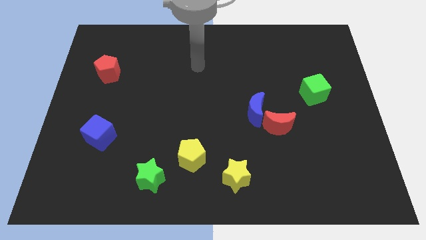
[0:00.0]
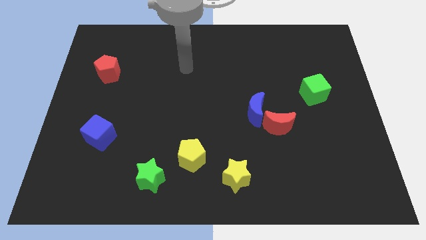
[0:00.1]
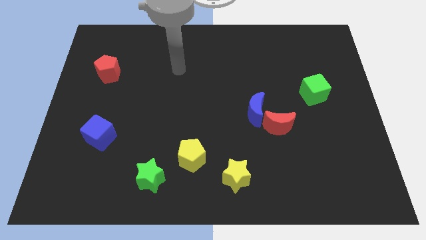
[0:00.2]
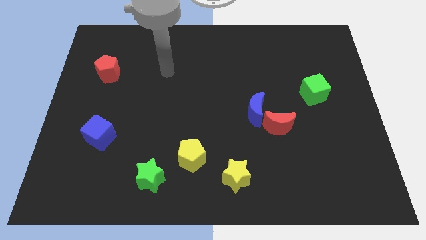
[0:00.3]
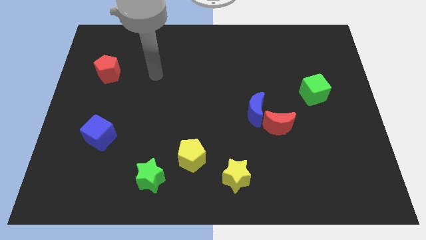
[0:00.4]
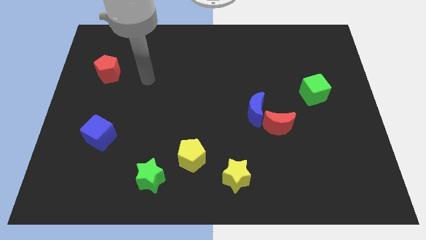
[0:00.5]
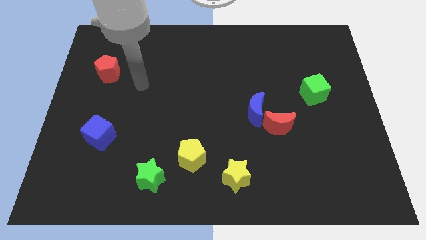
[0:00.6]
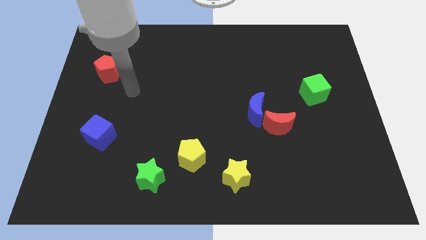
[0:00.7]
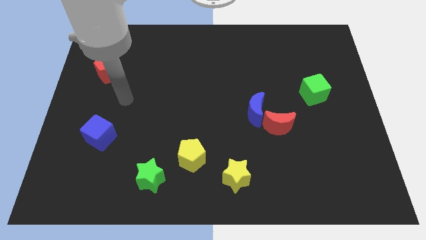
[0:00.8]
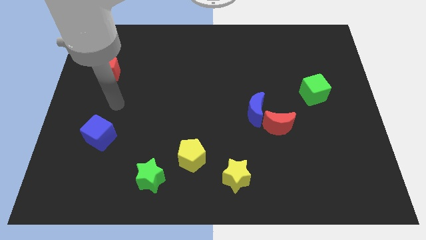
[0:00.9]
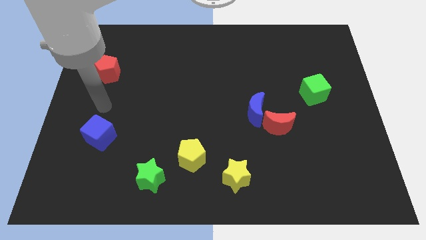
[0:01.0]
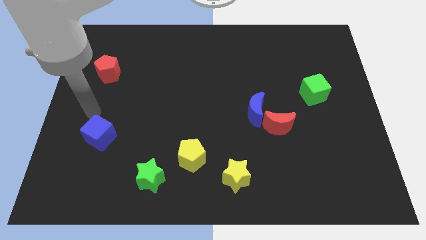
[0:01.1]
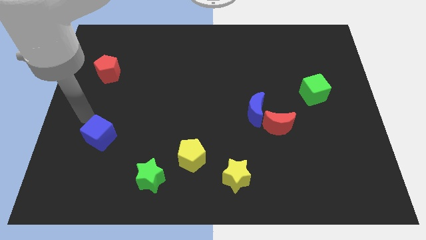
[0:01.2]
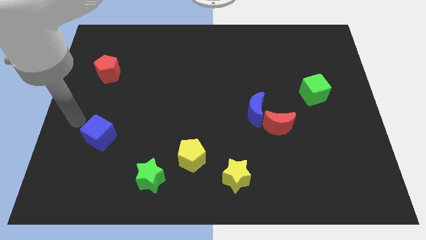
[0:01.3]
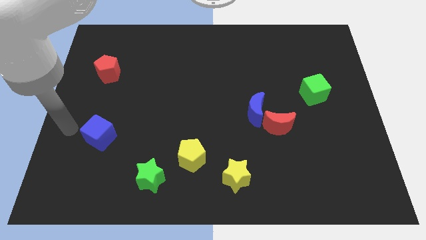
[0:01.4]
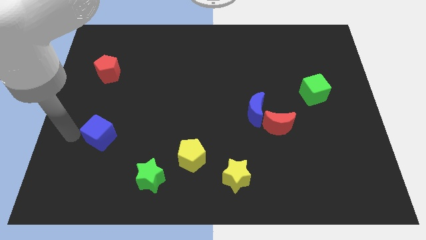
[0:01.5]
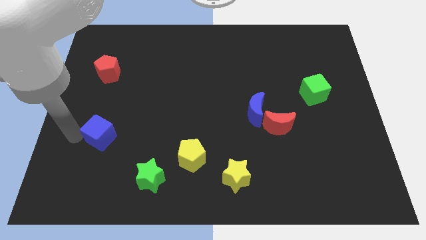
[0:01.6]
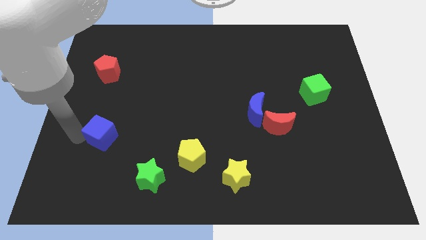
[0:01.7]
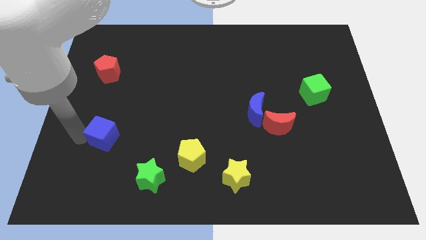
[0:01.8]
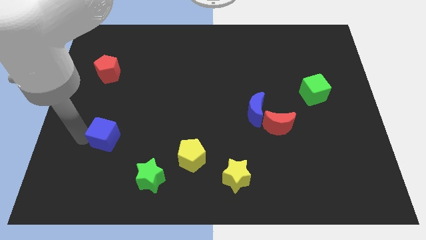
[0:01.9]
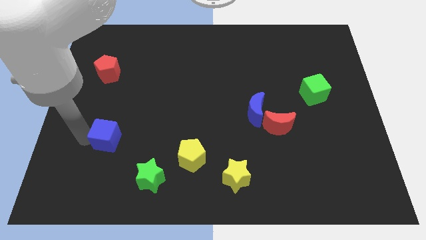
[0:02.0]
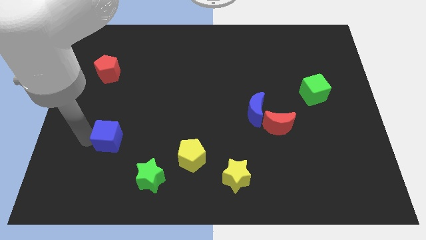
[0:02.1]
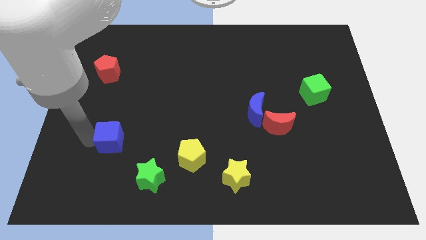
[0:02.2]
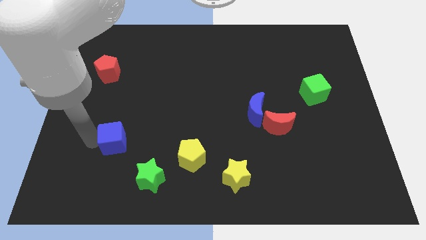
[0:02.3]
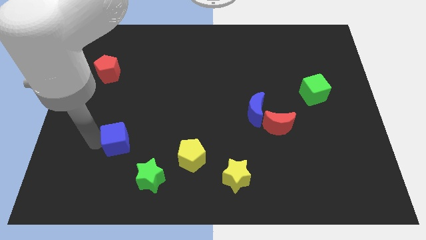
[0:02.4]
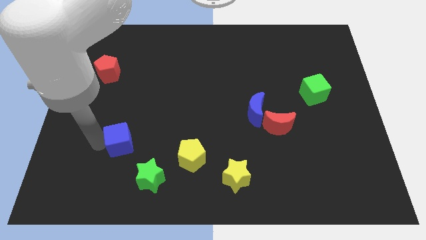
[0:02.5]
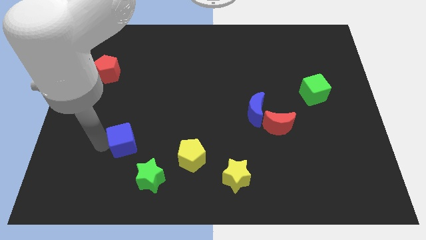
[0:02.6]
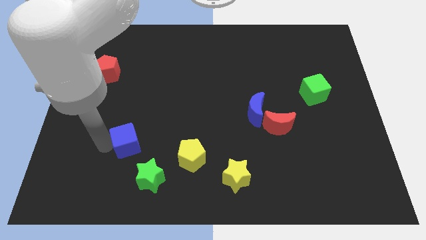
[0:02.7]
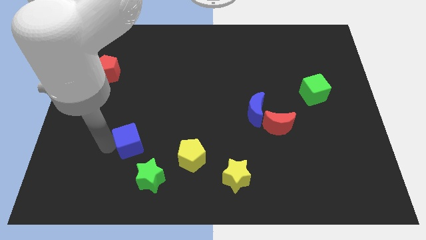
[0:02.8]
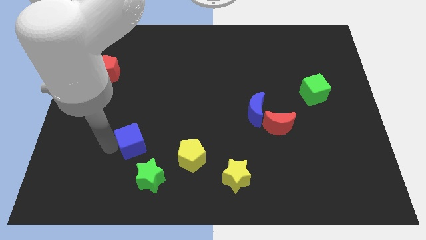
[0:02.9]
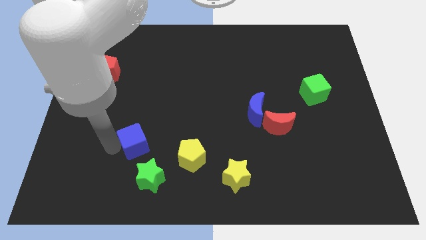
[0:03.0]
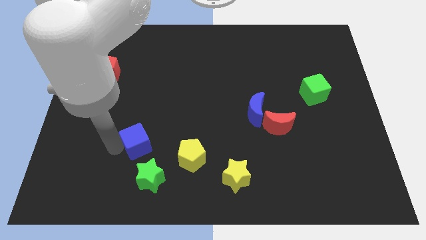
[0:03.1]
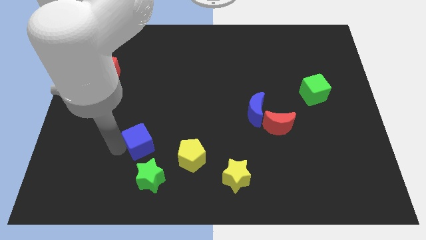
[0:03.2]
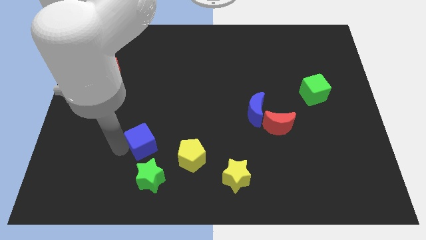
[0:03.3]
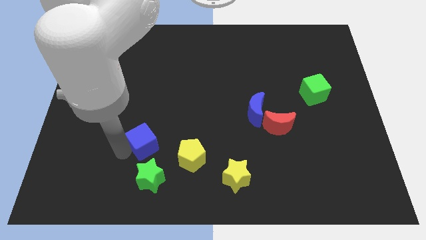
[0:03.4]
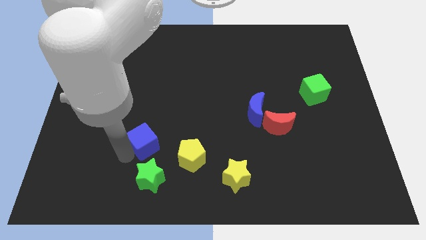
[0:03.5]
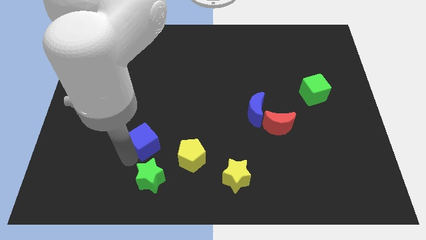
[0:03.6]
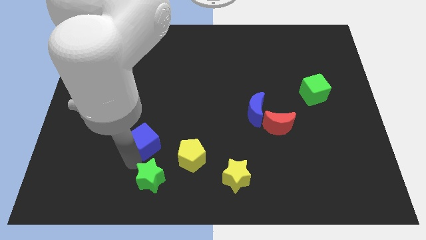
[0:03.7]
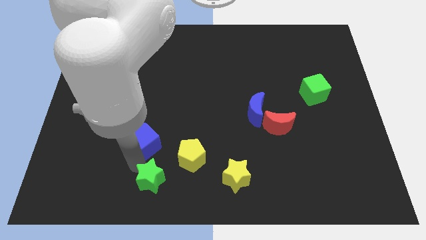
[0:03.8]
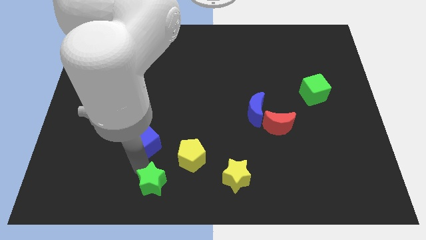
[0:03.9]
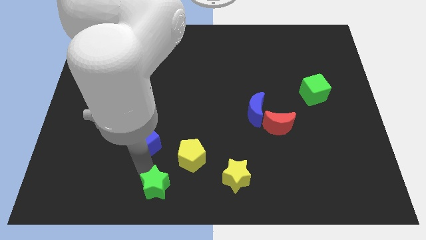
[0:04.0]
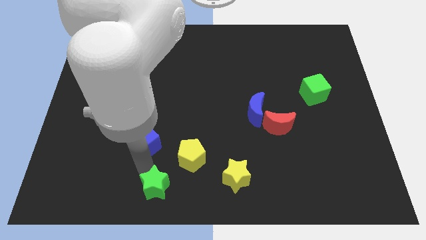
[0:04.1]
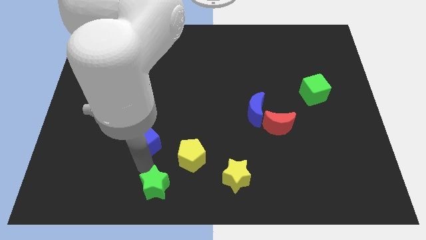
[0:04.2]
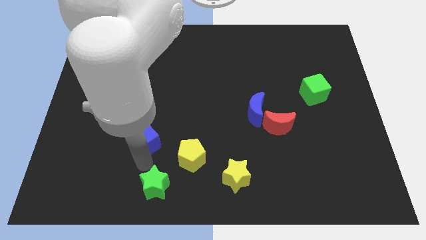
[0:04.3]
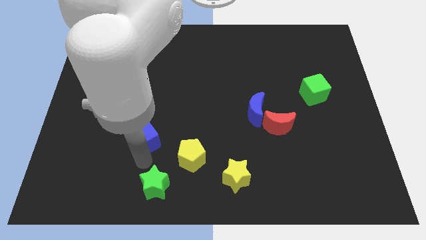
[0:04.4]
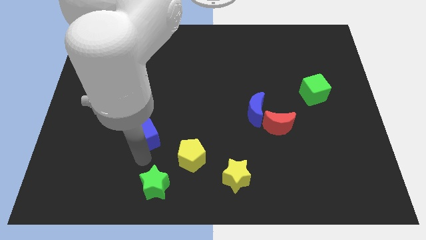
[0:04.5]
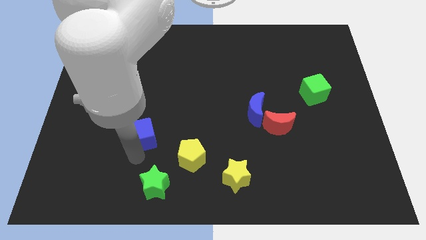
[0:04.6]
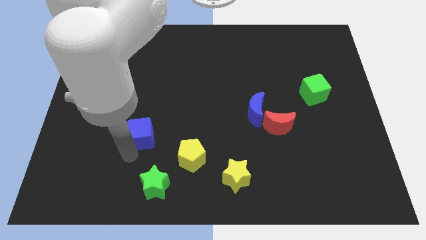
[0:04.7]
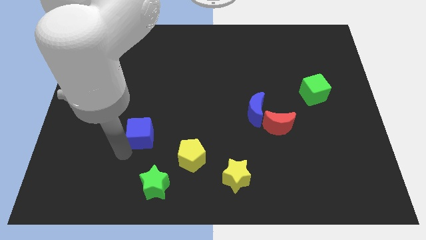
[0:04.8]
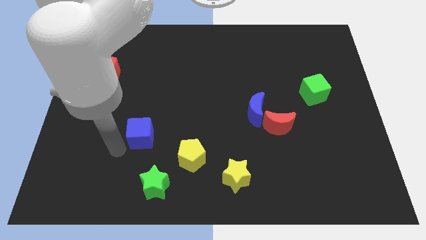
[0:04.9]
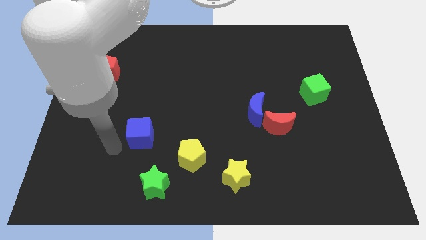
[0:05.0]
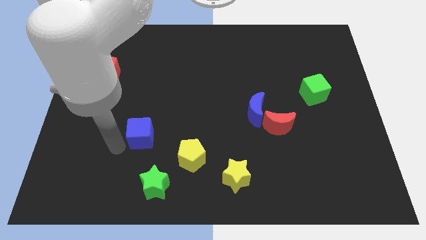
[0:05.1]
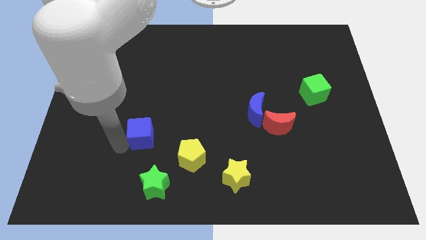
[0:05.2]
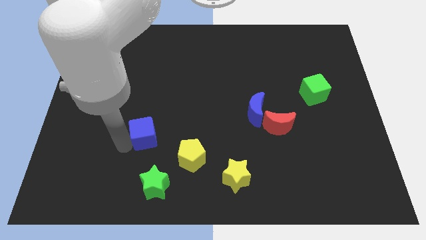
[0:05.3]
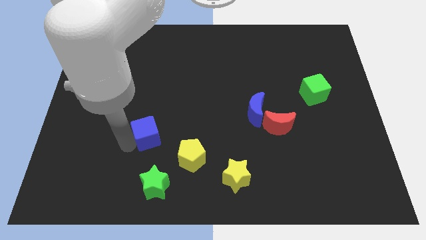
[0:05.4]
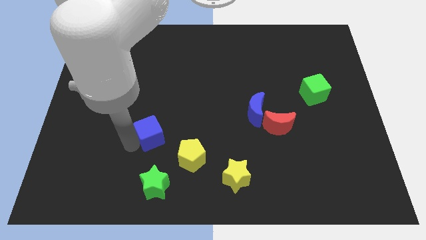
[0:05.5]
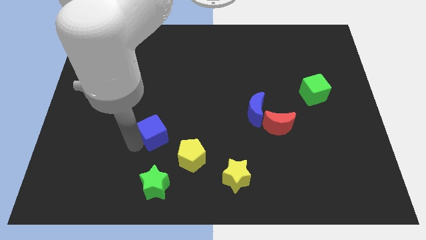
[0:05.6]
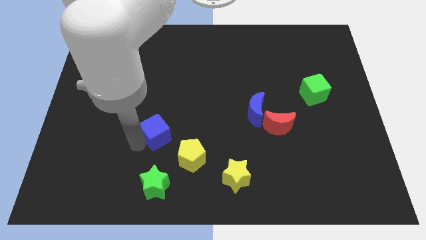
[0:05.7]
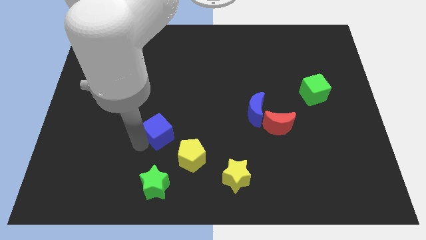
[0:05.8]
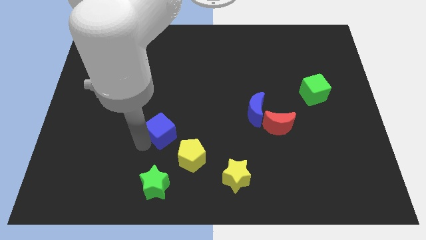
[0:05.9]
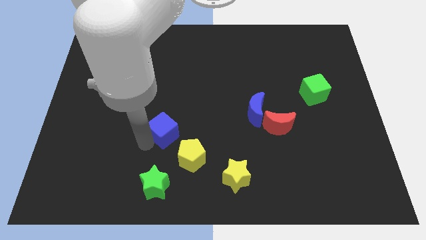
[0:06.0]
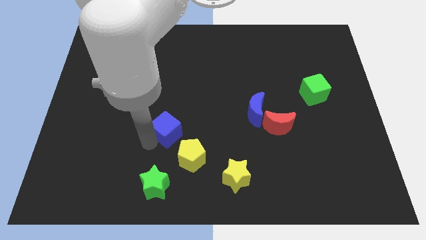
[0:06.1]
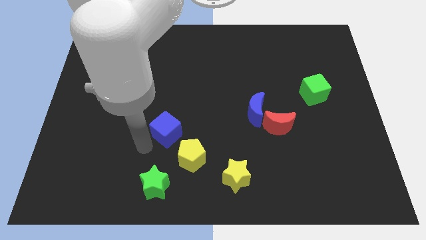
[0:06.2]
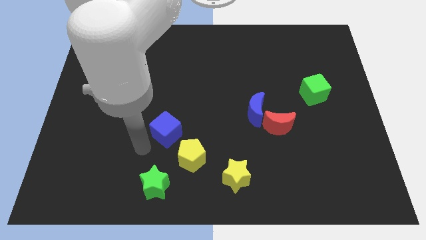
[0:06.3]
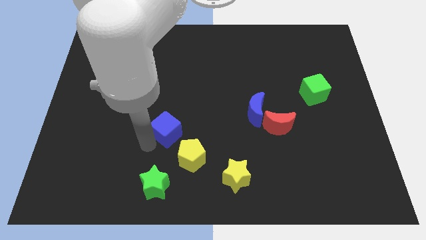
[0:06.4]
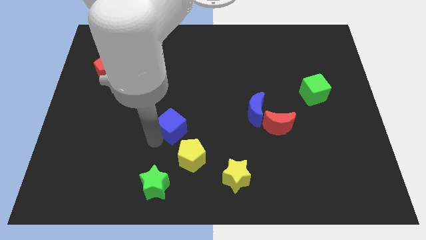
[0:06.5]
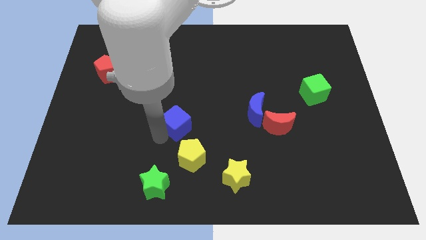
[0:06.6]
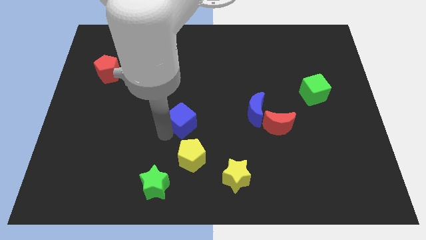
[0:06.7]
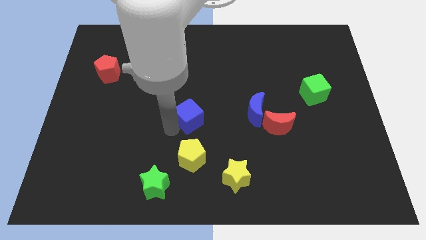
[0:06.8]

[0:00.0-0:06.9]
slide the blue cube left of the blue moon

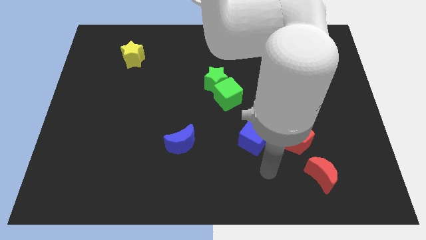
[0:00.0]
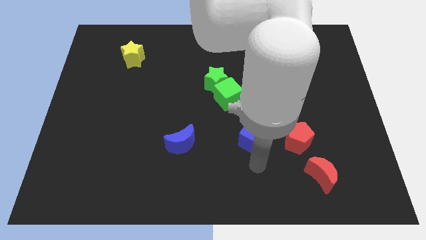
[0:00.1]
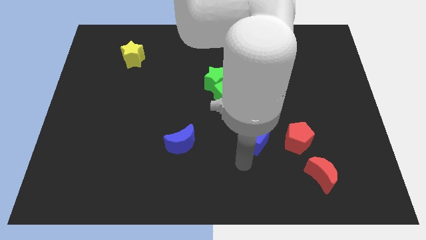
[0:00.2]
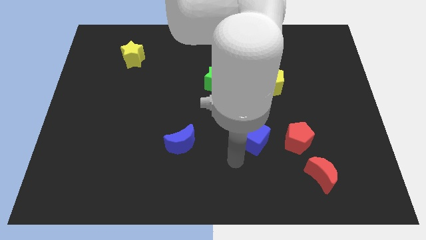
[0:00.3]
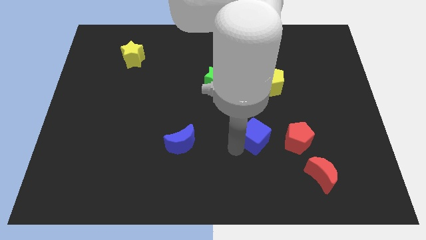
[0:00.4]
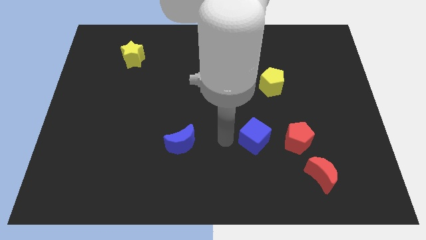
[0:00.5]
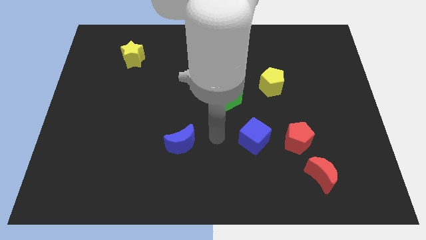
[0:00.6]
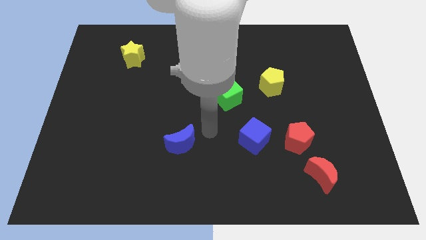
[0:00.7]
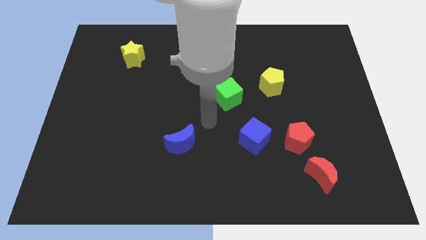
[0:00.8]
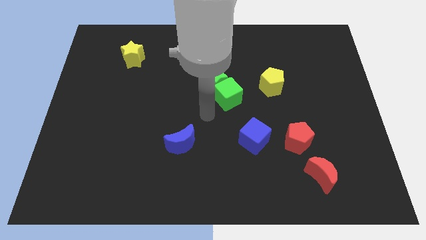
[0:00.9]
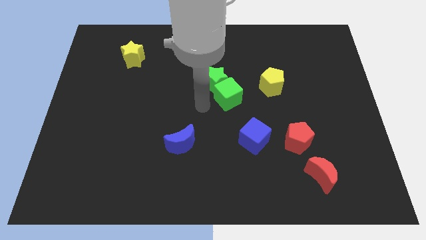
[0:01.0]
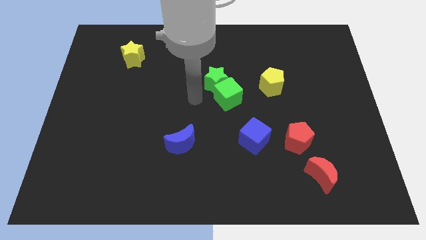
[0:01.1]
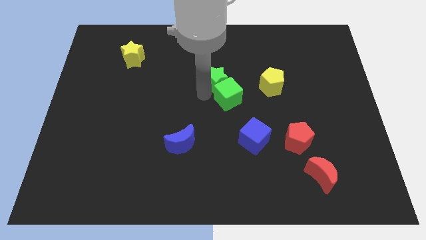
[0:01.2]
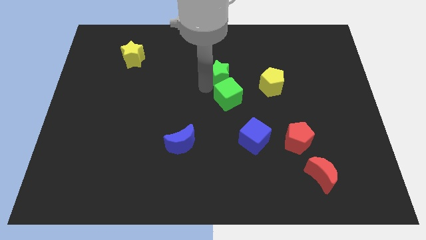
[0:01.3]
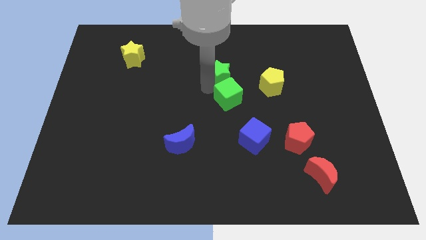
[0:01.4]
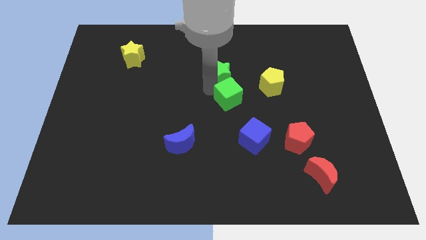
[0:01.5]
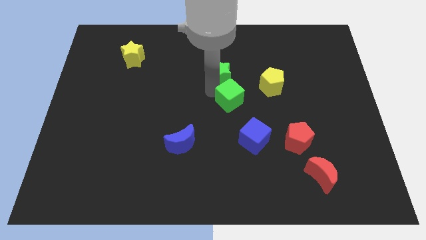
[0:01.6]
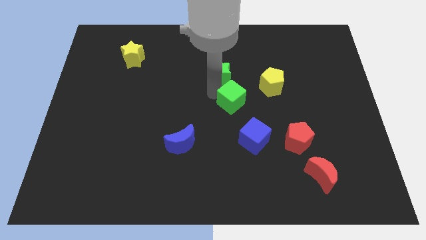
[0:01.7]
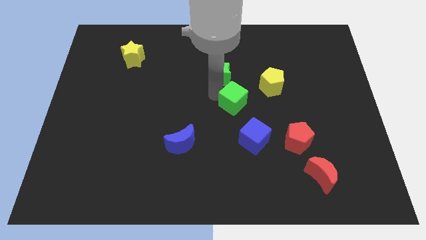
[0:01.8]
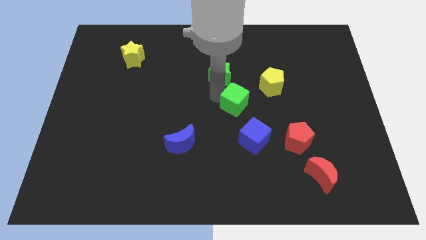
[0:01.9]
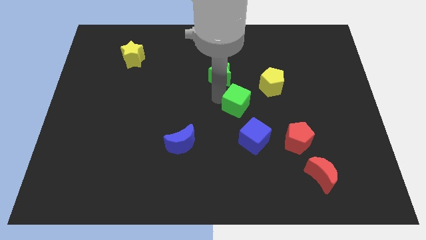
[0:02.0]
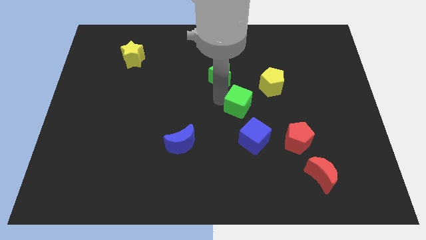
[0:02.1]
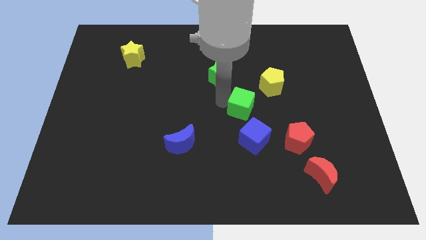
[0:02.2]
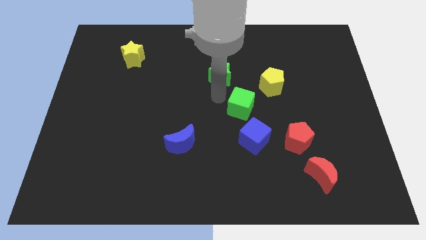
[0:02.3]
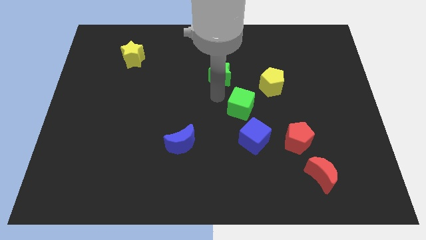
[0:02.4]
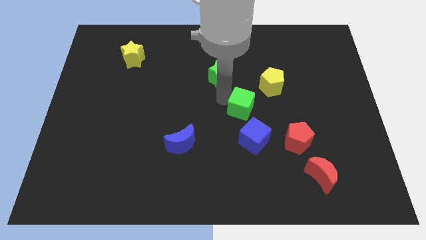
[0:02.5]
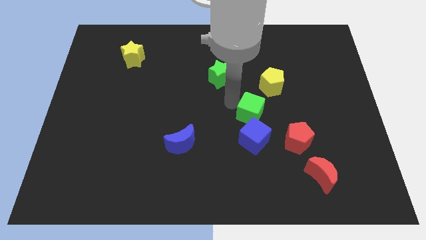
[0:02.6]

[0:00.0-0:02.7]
put the green cube diagonally up and to the left of the red pentagon
